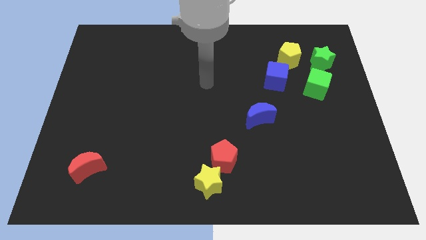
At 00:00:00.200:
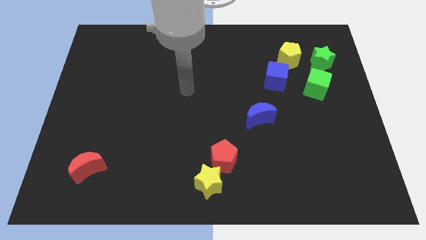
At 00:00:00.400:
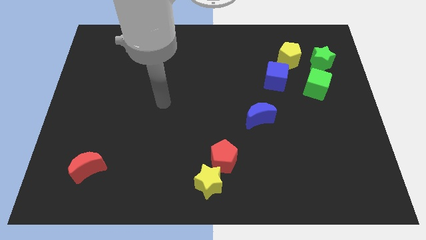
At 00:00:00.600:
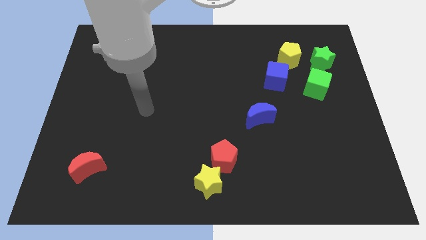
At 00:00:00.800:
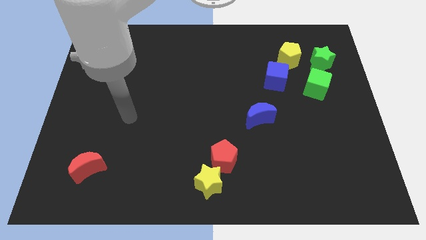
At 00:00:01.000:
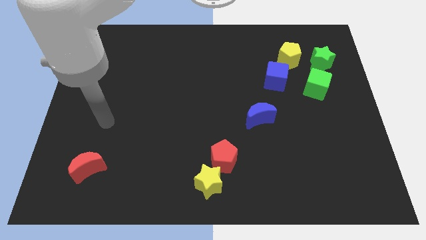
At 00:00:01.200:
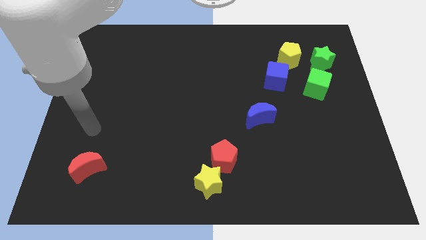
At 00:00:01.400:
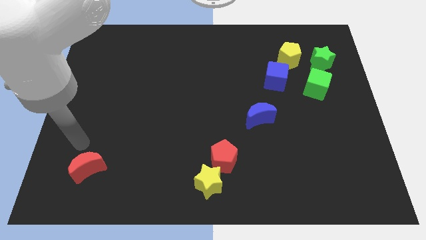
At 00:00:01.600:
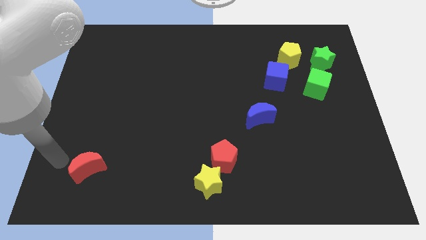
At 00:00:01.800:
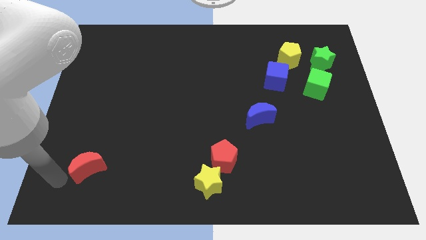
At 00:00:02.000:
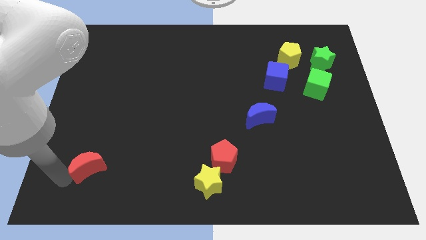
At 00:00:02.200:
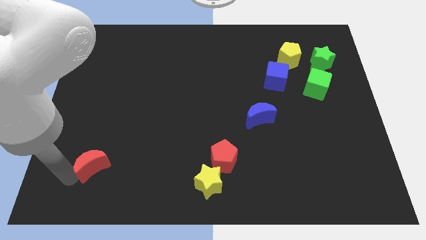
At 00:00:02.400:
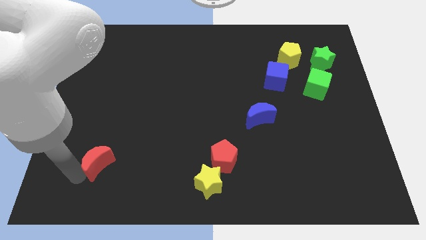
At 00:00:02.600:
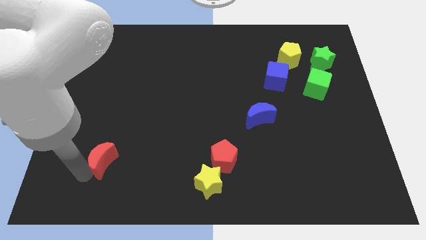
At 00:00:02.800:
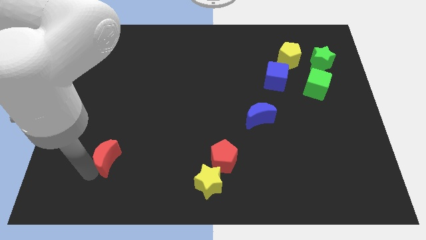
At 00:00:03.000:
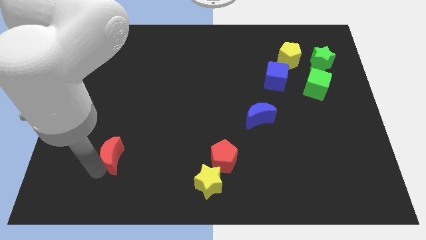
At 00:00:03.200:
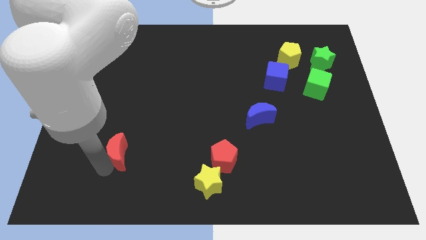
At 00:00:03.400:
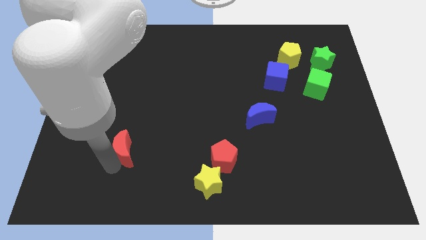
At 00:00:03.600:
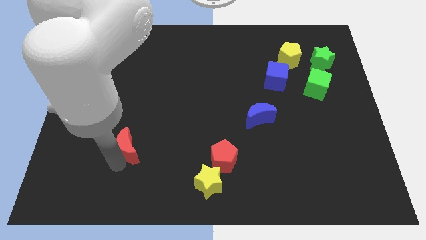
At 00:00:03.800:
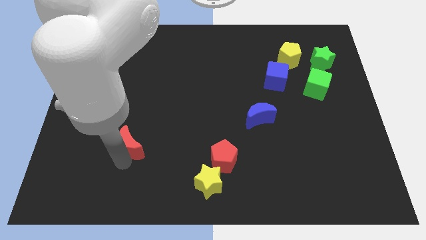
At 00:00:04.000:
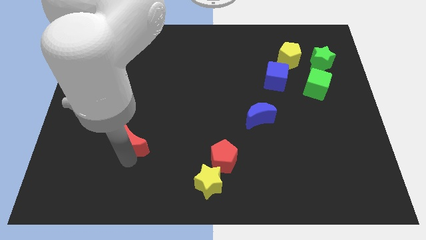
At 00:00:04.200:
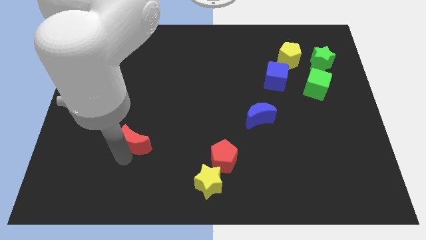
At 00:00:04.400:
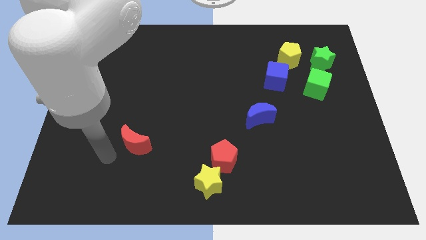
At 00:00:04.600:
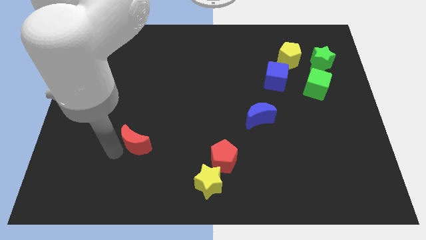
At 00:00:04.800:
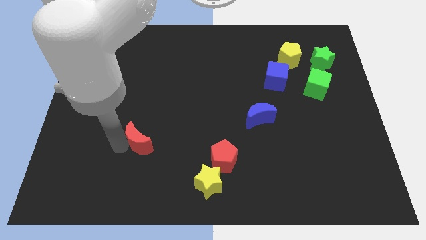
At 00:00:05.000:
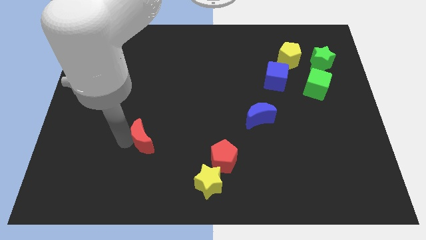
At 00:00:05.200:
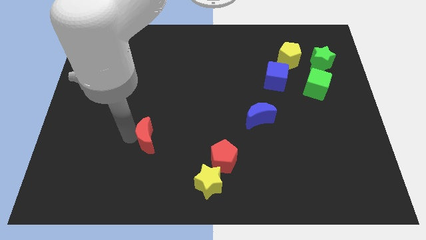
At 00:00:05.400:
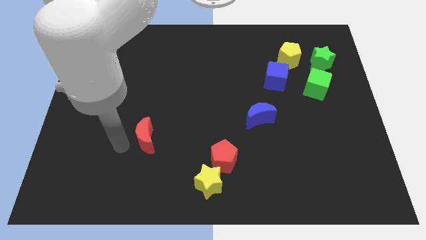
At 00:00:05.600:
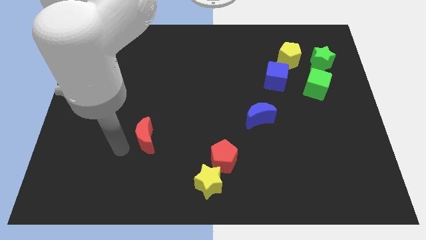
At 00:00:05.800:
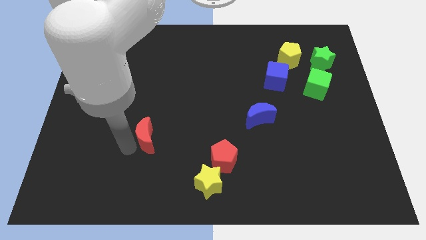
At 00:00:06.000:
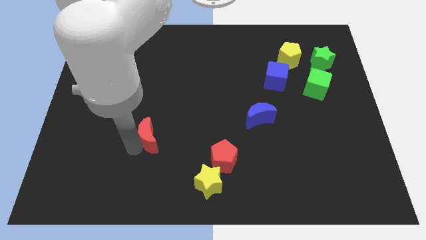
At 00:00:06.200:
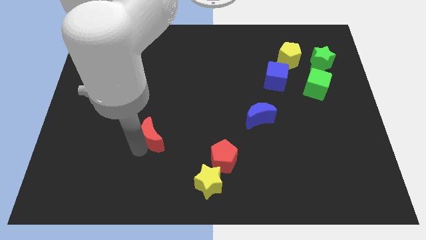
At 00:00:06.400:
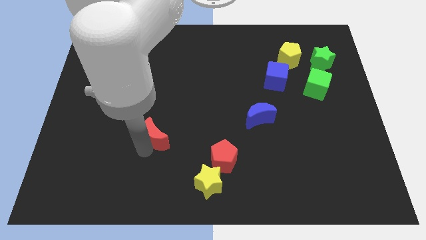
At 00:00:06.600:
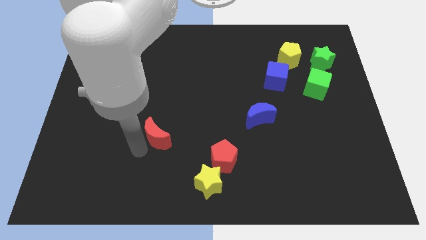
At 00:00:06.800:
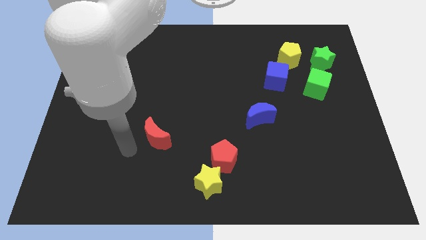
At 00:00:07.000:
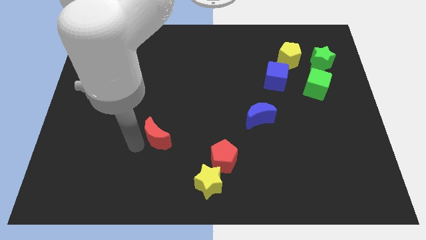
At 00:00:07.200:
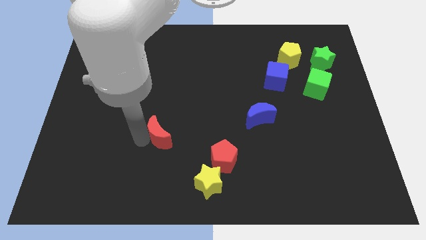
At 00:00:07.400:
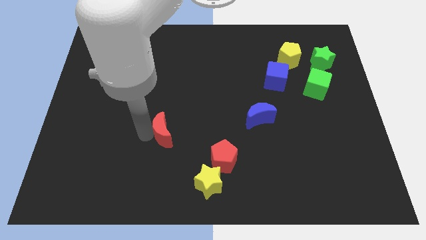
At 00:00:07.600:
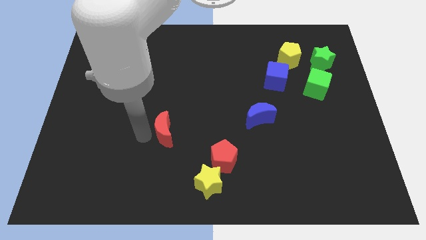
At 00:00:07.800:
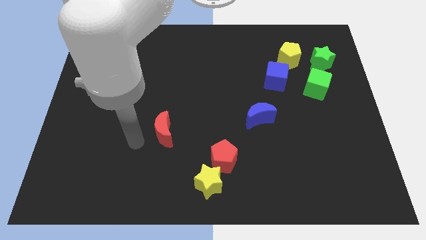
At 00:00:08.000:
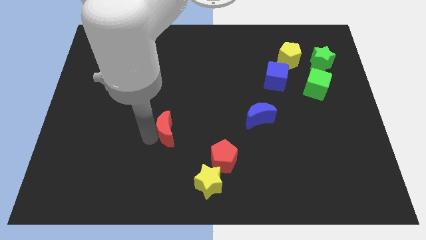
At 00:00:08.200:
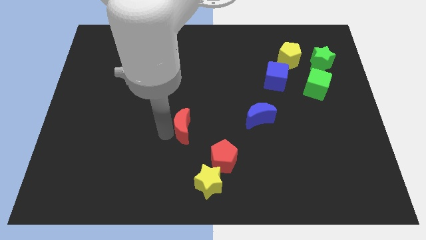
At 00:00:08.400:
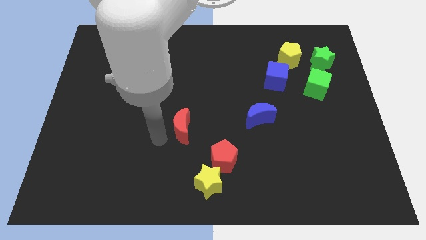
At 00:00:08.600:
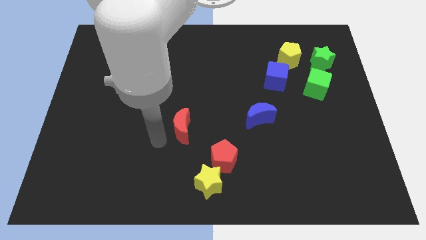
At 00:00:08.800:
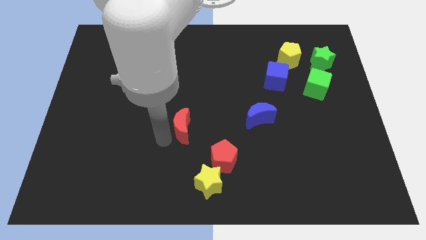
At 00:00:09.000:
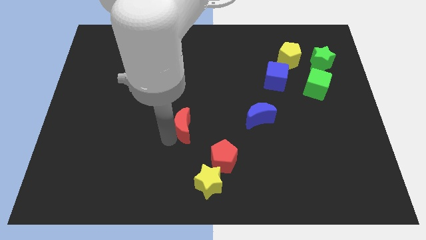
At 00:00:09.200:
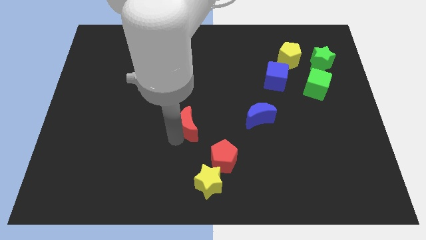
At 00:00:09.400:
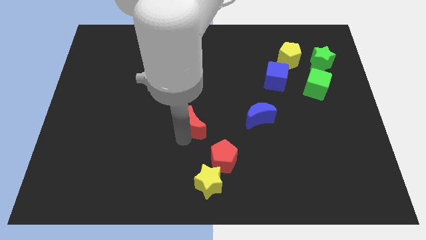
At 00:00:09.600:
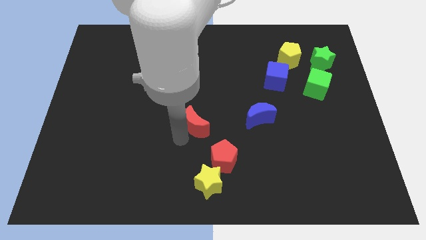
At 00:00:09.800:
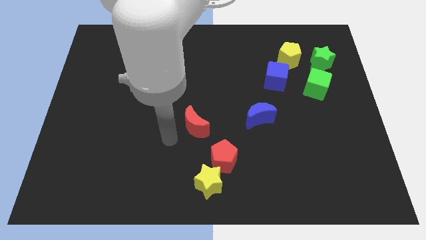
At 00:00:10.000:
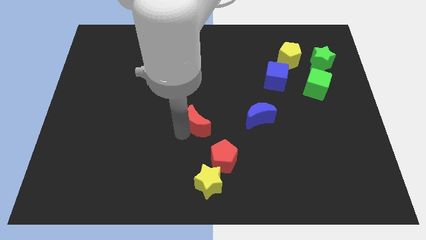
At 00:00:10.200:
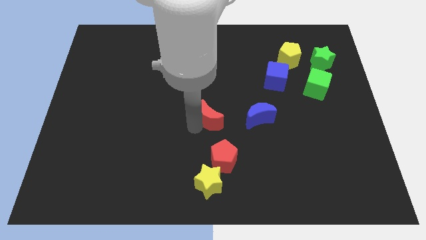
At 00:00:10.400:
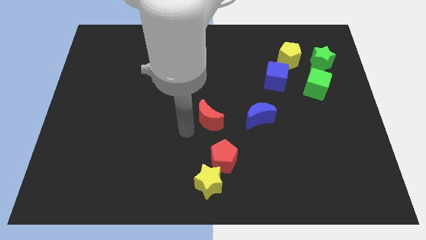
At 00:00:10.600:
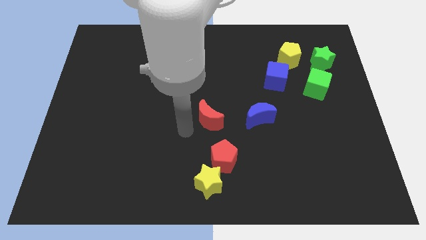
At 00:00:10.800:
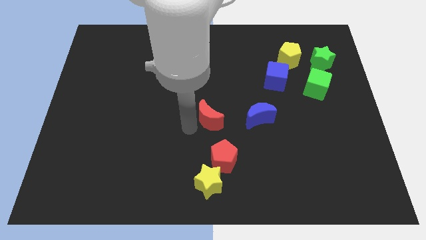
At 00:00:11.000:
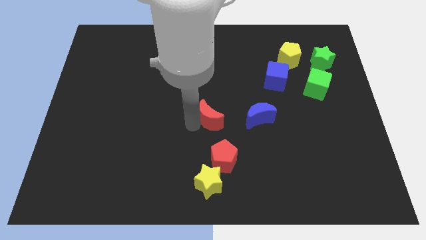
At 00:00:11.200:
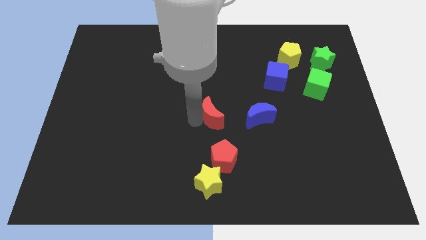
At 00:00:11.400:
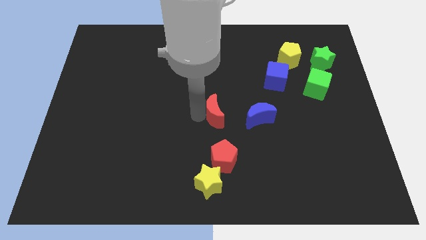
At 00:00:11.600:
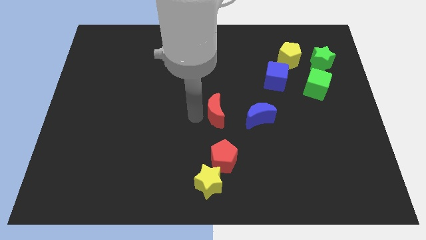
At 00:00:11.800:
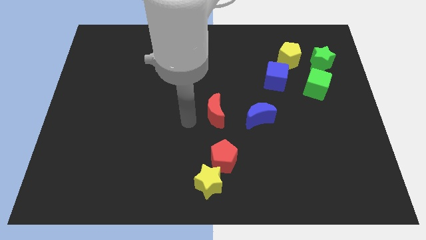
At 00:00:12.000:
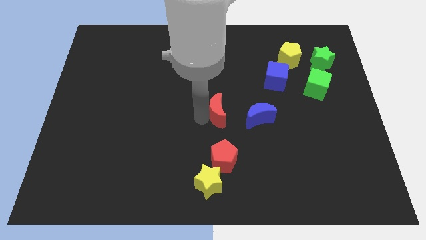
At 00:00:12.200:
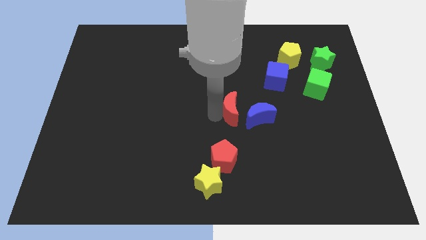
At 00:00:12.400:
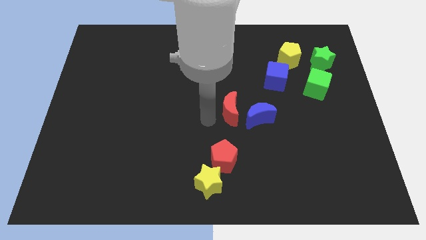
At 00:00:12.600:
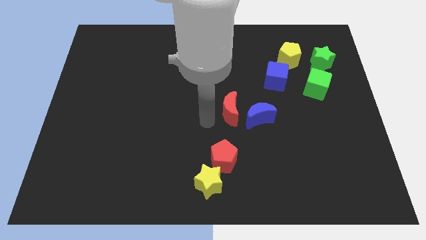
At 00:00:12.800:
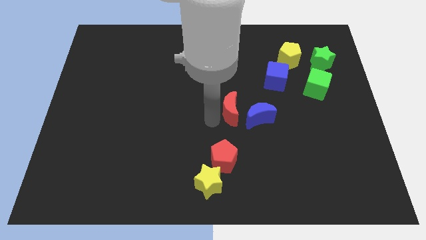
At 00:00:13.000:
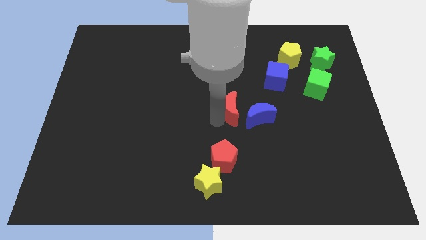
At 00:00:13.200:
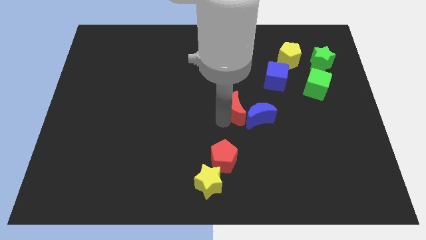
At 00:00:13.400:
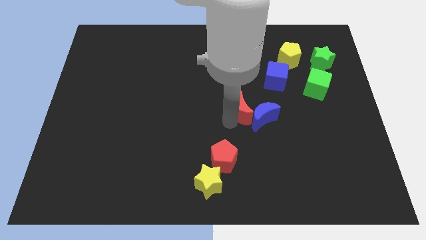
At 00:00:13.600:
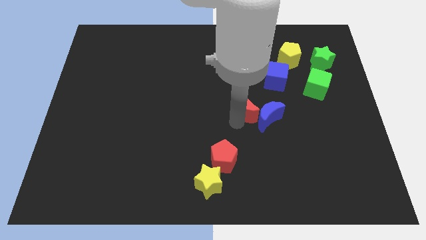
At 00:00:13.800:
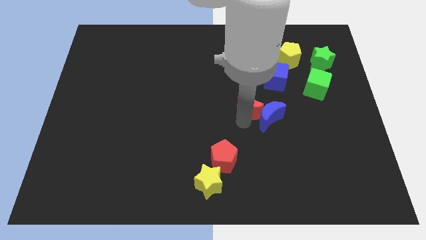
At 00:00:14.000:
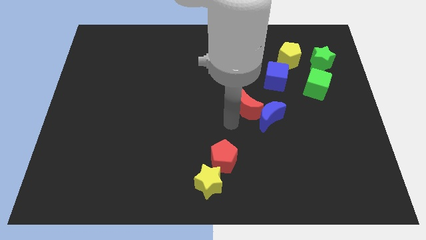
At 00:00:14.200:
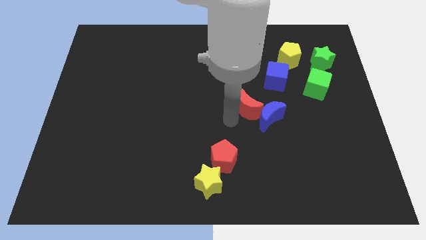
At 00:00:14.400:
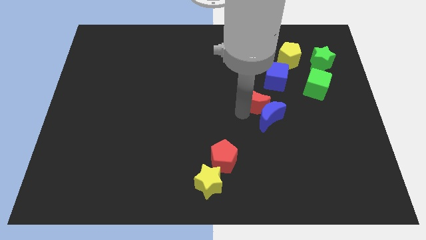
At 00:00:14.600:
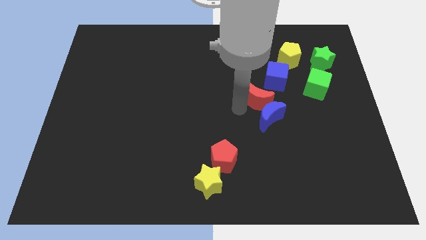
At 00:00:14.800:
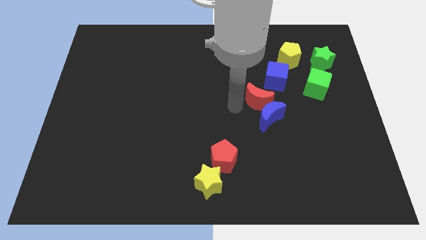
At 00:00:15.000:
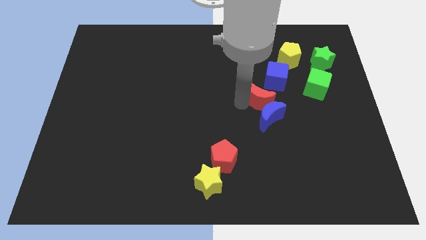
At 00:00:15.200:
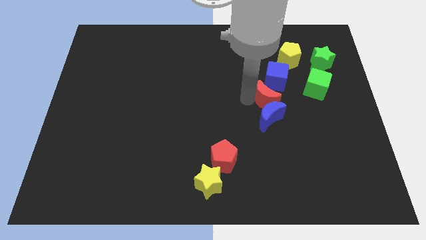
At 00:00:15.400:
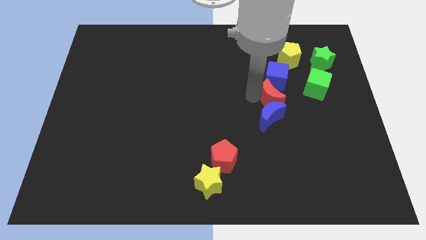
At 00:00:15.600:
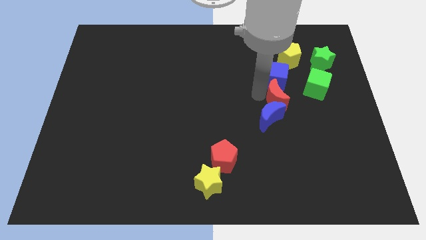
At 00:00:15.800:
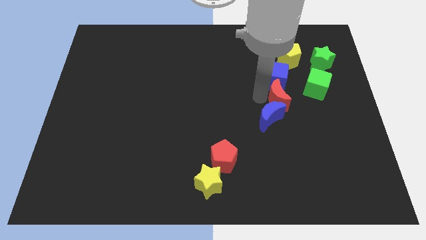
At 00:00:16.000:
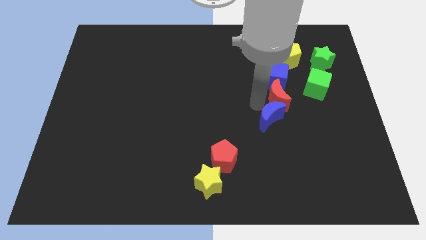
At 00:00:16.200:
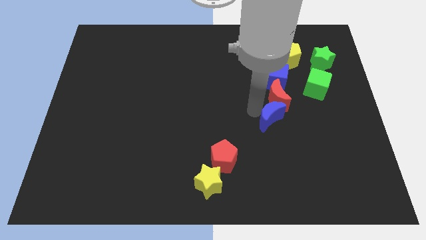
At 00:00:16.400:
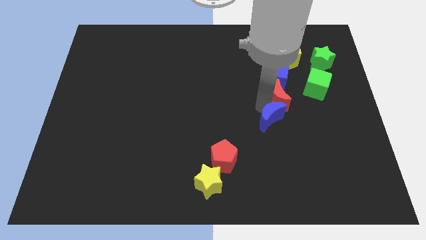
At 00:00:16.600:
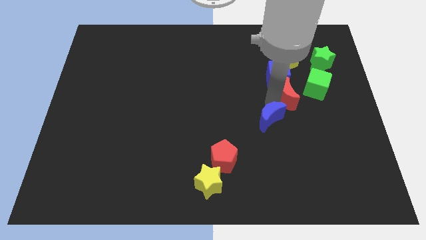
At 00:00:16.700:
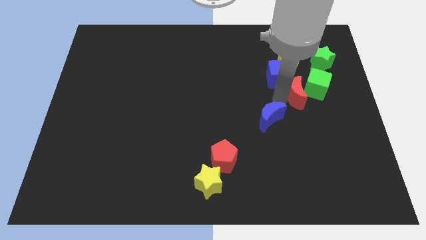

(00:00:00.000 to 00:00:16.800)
move the red moon to the green cube
